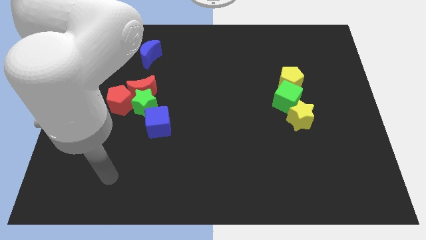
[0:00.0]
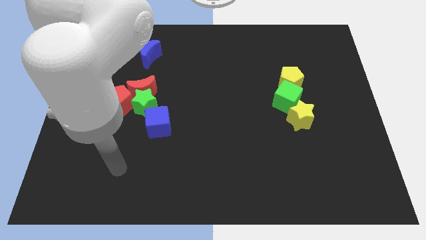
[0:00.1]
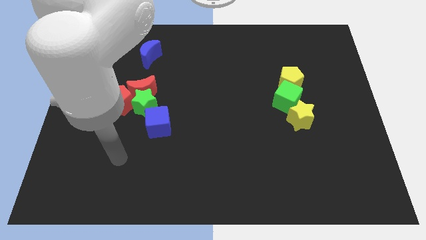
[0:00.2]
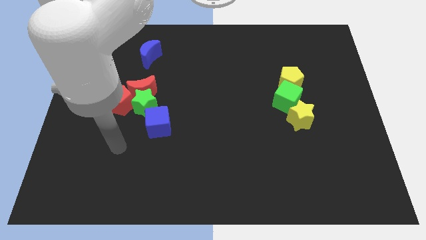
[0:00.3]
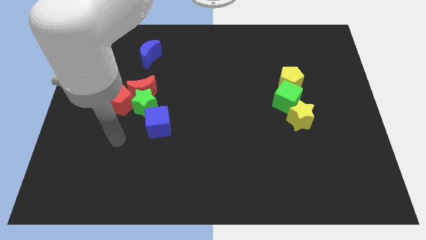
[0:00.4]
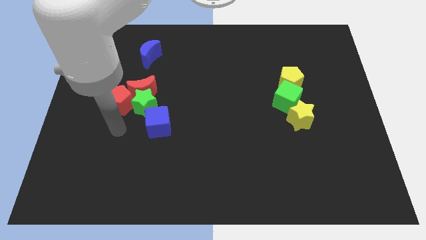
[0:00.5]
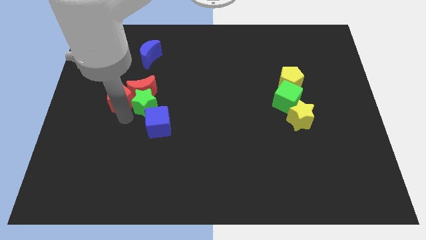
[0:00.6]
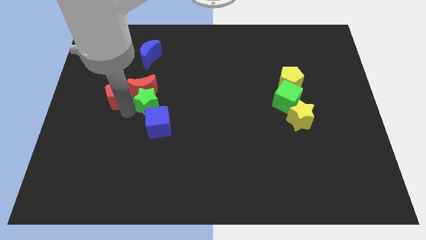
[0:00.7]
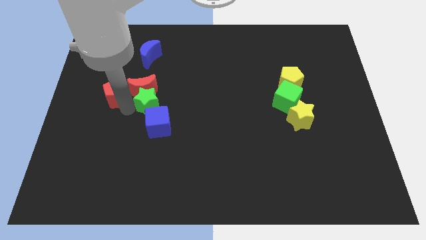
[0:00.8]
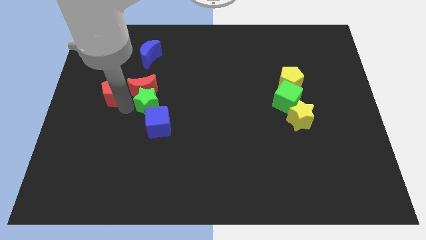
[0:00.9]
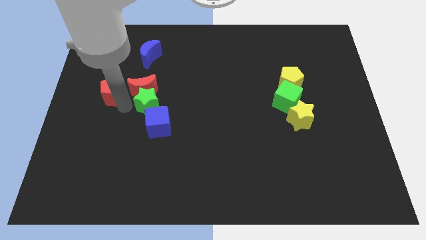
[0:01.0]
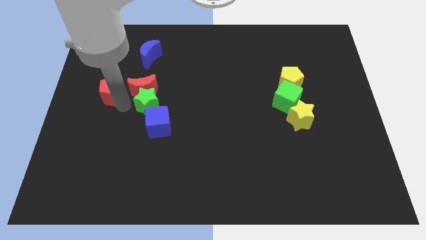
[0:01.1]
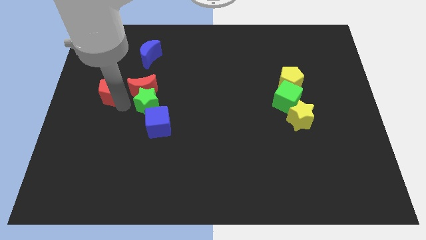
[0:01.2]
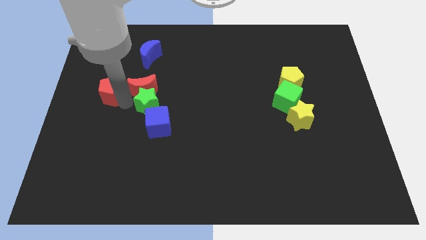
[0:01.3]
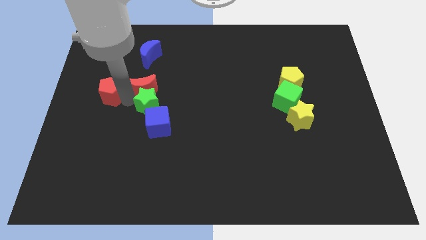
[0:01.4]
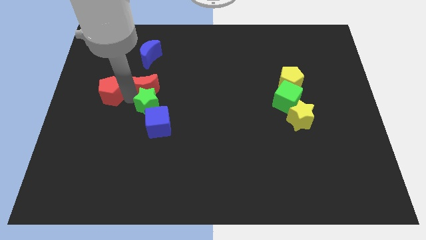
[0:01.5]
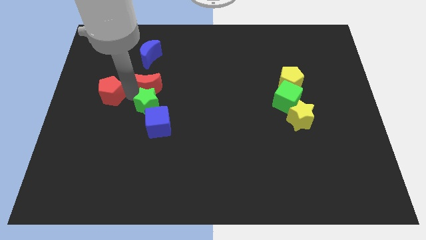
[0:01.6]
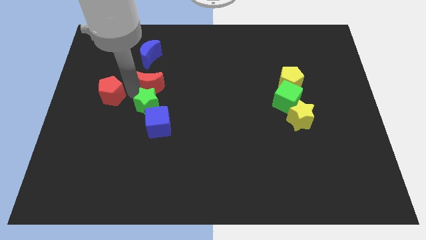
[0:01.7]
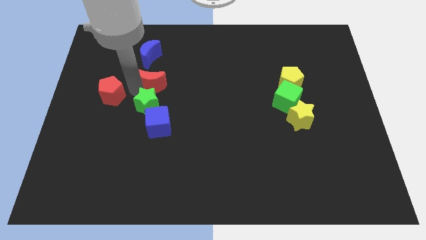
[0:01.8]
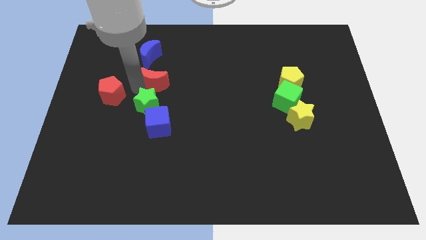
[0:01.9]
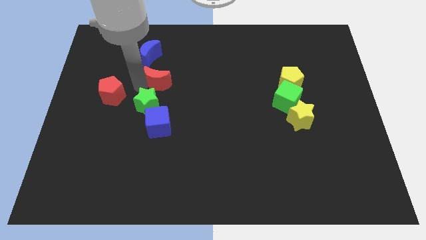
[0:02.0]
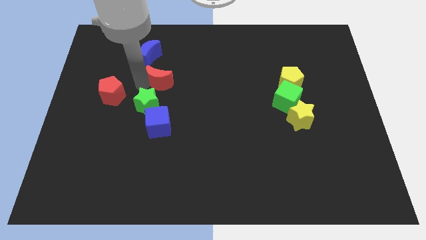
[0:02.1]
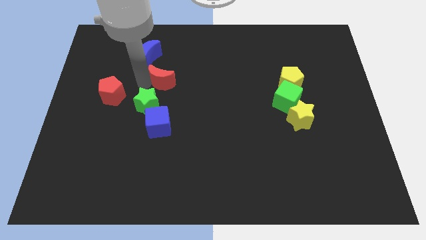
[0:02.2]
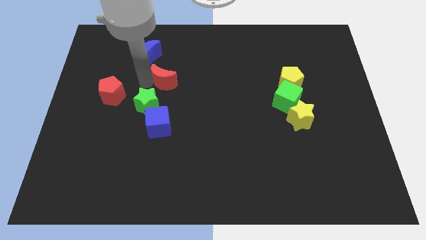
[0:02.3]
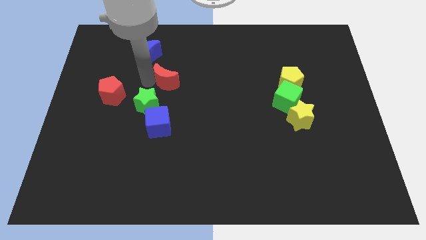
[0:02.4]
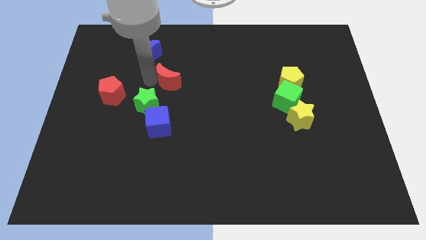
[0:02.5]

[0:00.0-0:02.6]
move the red moon away from the green star and red pentagon

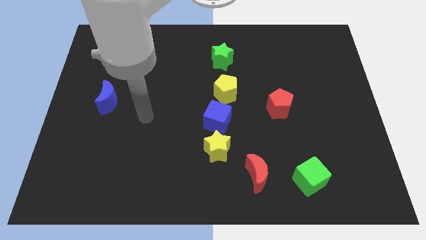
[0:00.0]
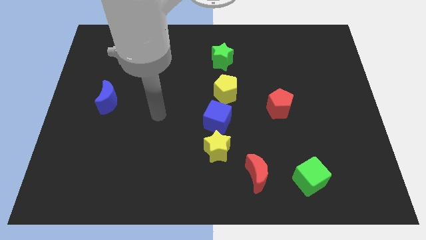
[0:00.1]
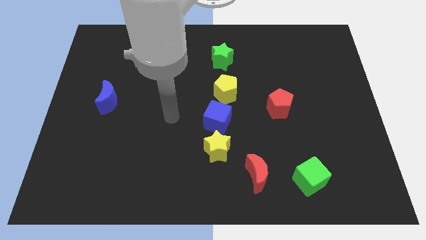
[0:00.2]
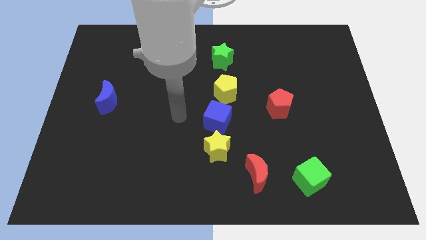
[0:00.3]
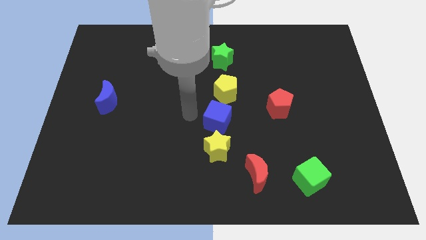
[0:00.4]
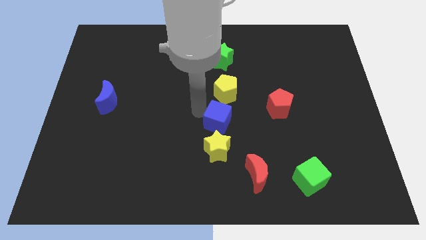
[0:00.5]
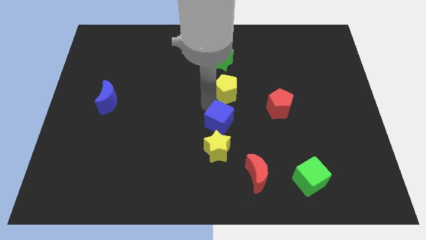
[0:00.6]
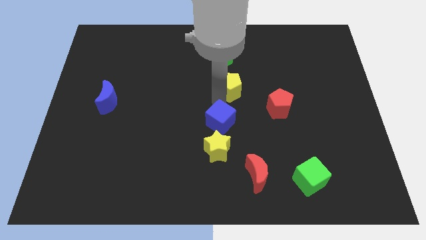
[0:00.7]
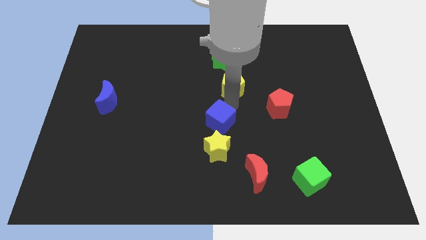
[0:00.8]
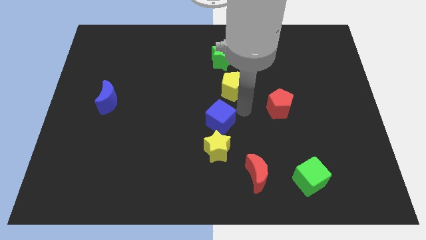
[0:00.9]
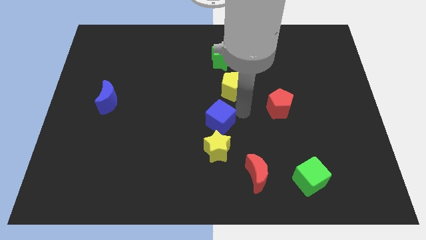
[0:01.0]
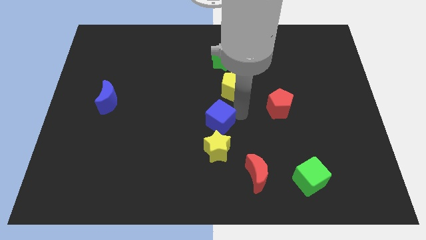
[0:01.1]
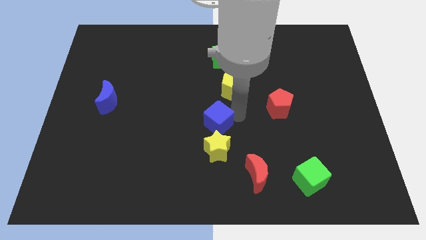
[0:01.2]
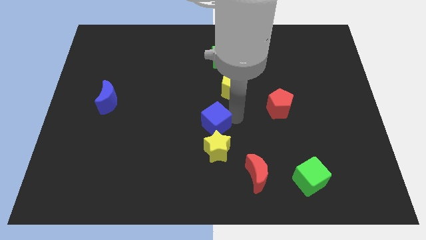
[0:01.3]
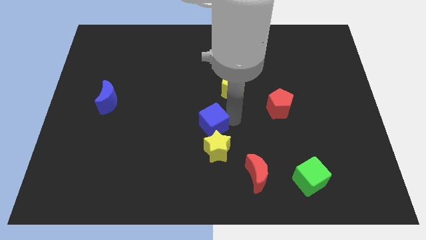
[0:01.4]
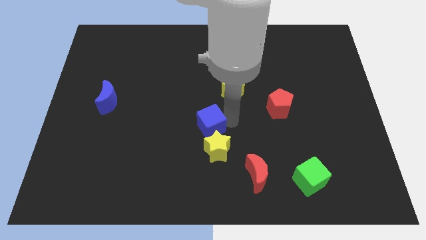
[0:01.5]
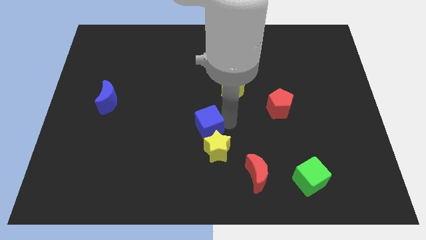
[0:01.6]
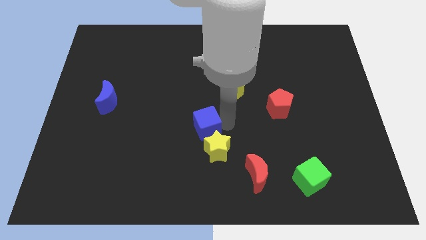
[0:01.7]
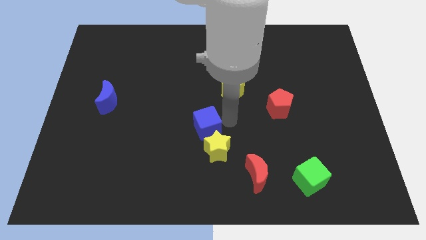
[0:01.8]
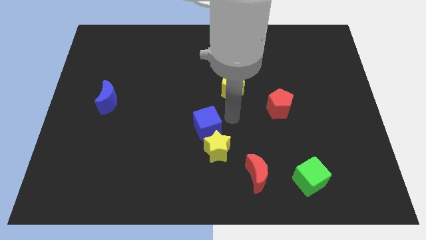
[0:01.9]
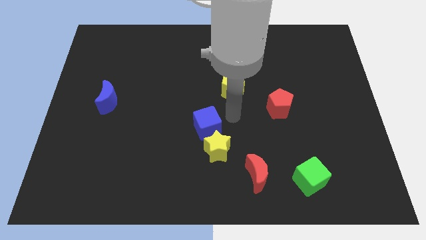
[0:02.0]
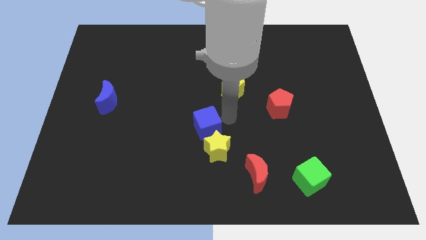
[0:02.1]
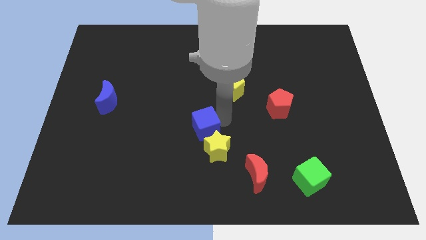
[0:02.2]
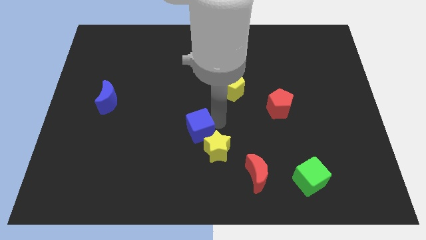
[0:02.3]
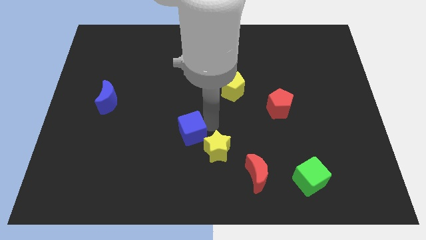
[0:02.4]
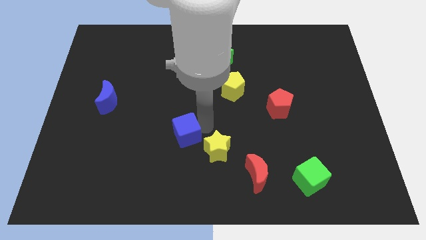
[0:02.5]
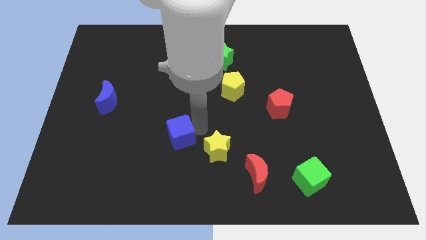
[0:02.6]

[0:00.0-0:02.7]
move the blue cube away from the yellow star and yellow pentagon

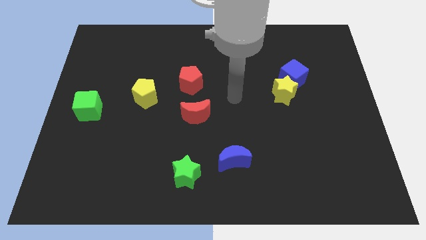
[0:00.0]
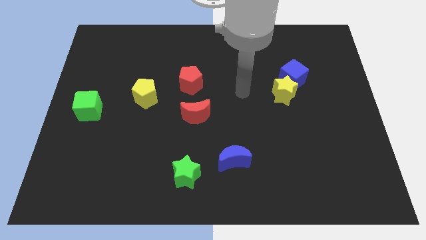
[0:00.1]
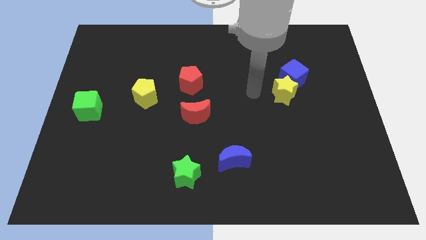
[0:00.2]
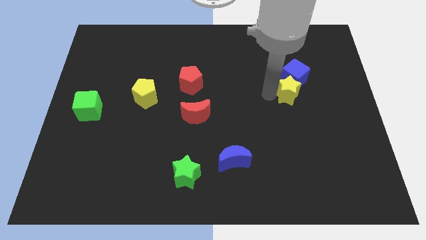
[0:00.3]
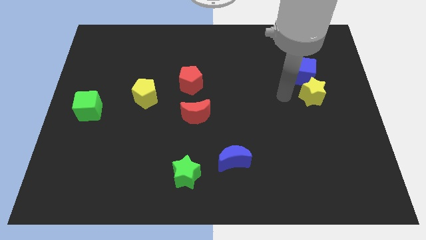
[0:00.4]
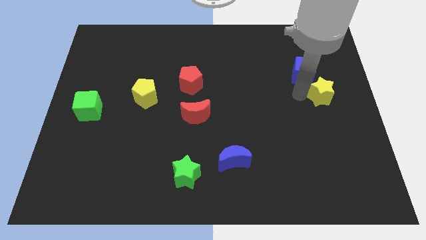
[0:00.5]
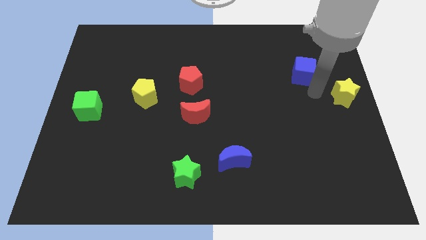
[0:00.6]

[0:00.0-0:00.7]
move the blue cube away from the yellow star

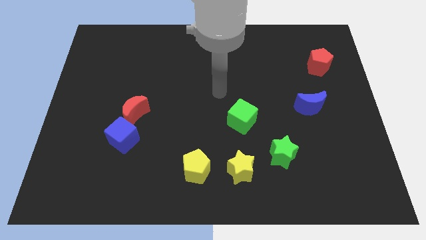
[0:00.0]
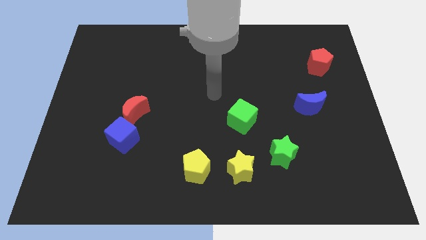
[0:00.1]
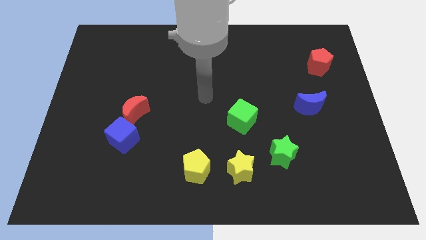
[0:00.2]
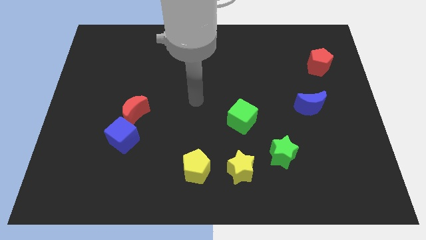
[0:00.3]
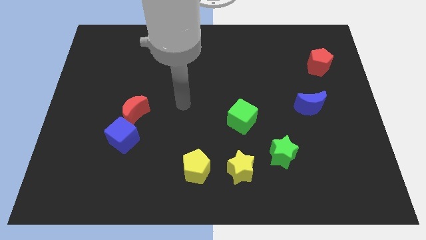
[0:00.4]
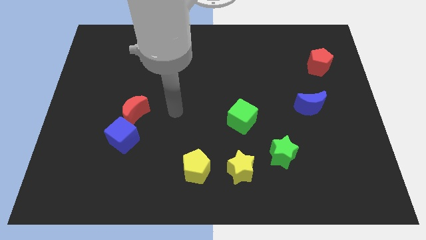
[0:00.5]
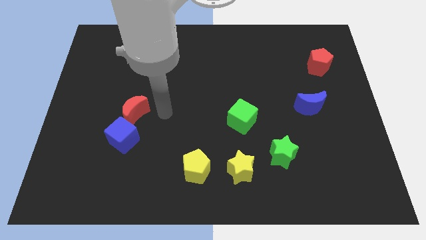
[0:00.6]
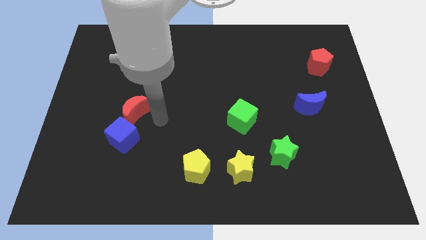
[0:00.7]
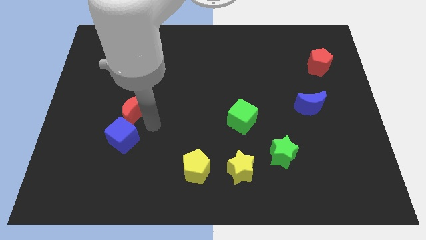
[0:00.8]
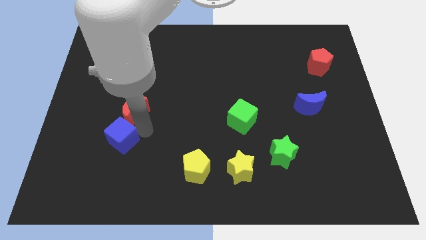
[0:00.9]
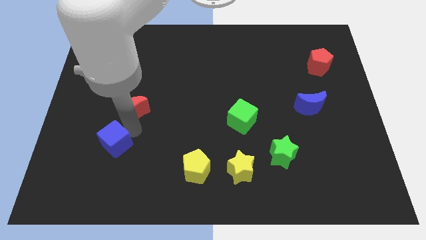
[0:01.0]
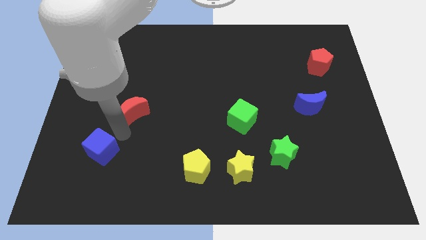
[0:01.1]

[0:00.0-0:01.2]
separate the red moon from the blue cube

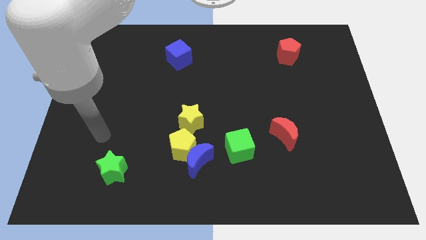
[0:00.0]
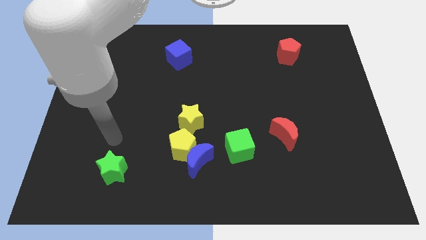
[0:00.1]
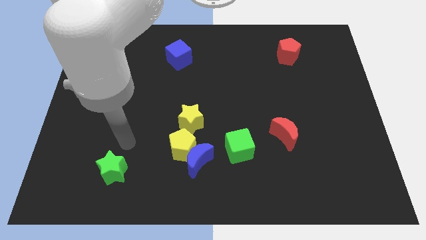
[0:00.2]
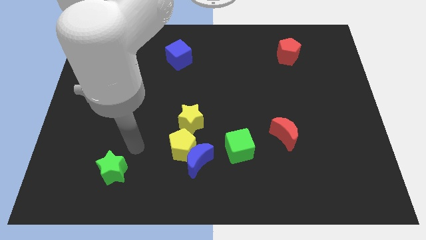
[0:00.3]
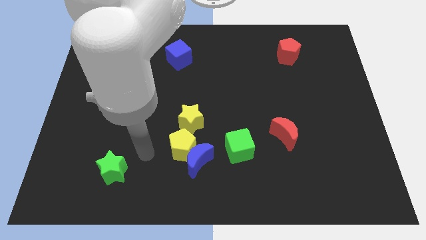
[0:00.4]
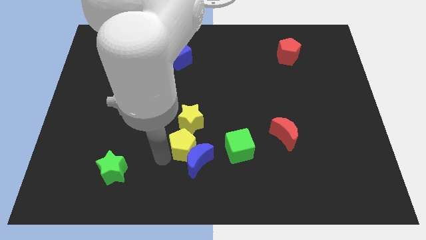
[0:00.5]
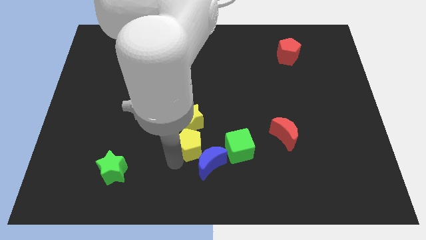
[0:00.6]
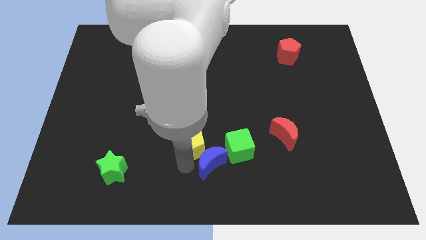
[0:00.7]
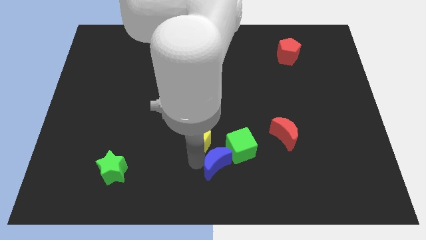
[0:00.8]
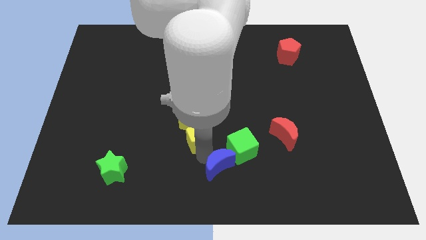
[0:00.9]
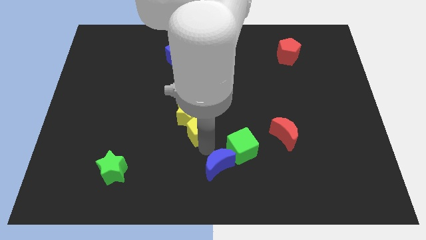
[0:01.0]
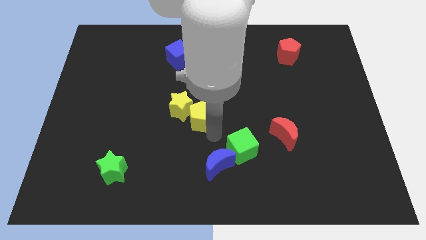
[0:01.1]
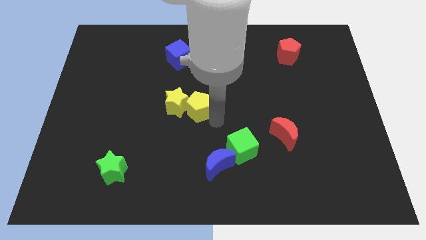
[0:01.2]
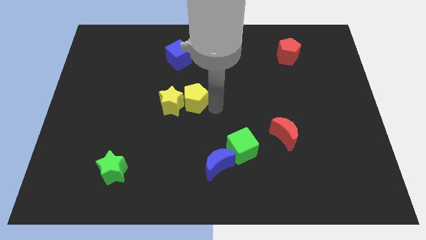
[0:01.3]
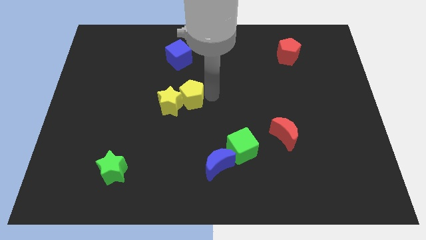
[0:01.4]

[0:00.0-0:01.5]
move the yellow pentagon away from the blue moon and yellow star

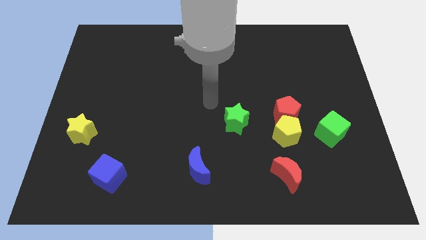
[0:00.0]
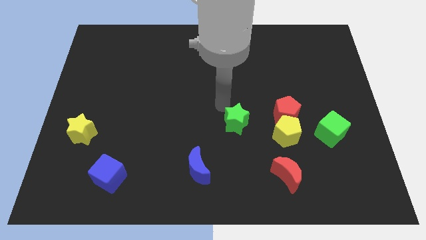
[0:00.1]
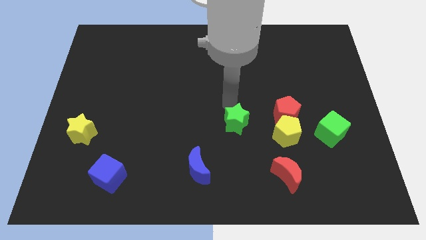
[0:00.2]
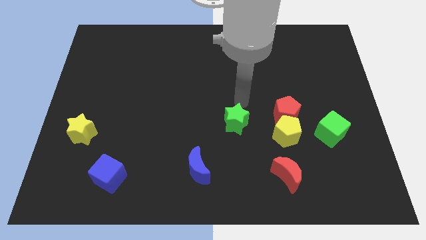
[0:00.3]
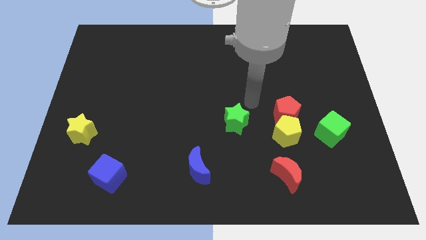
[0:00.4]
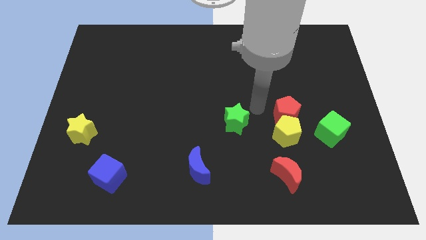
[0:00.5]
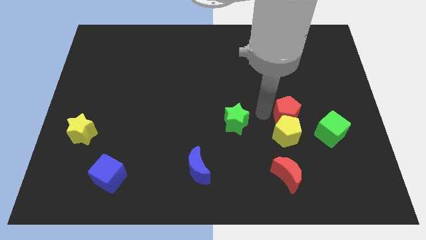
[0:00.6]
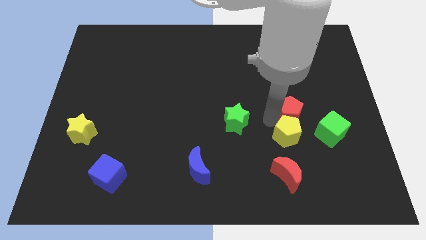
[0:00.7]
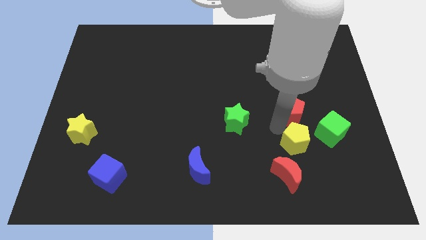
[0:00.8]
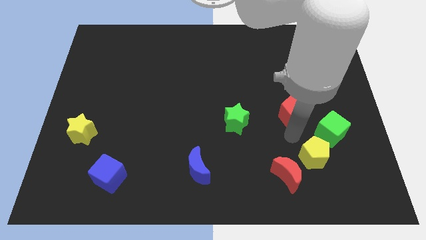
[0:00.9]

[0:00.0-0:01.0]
move the red pentagon away from the yellow pentagon
